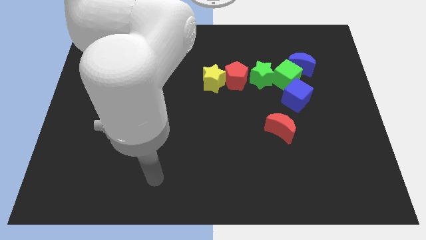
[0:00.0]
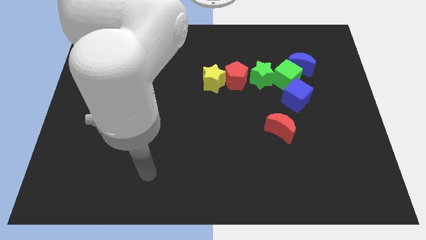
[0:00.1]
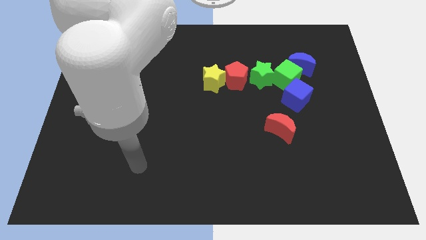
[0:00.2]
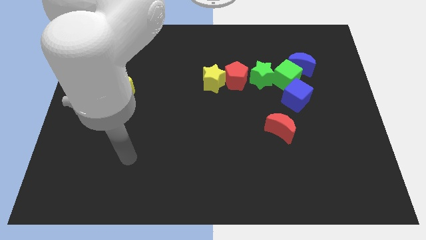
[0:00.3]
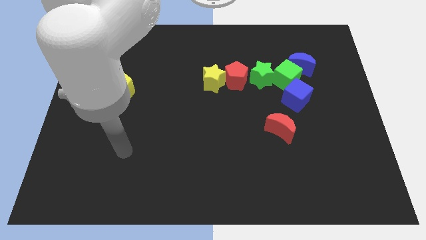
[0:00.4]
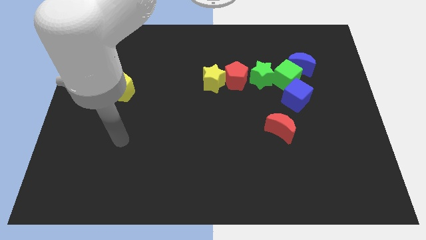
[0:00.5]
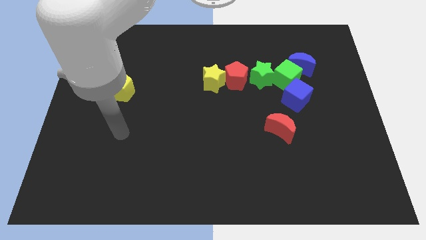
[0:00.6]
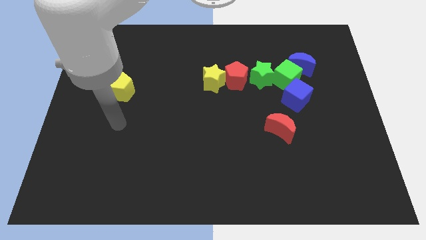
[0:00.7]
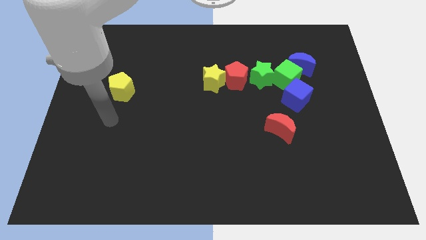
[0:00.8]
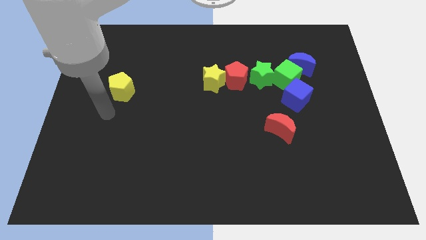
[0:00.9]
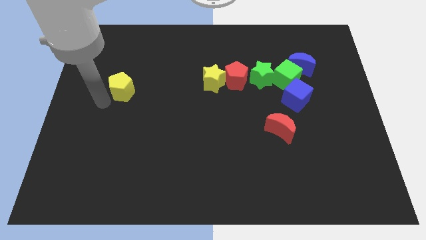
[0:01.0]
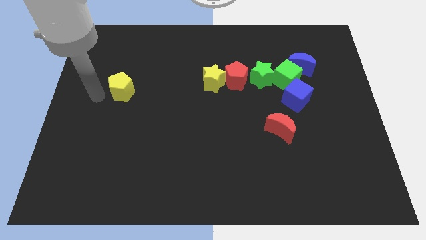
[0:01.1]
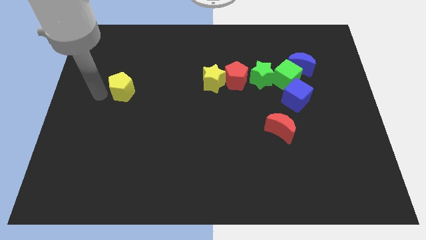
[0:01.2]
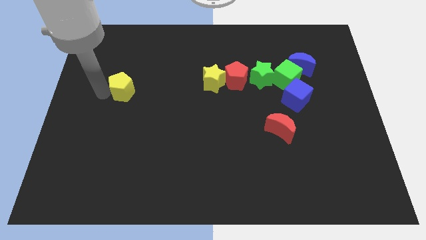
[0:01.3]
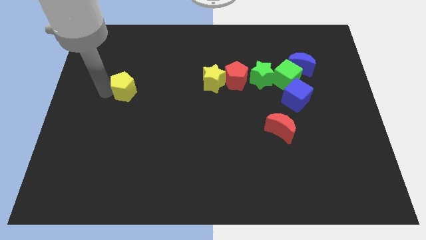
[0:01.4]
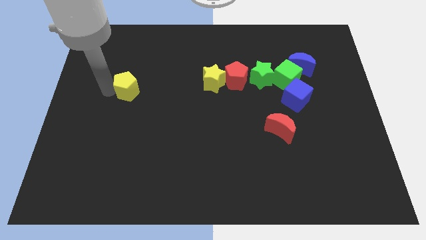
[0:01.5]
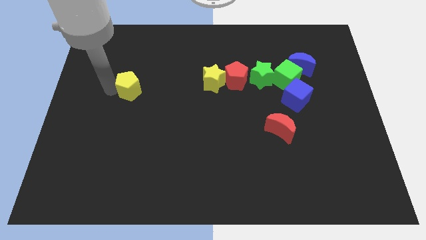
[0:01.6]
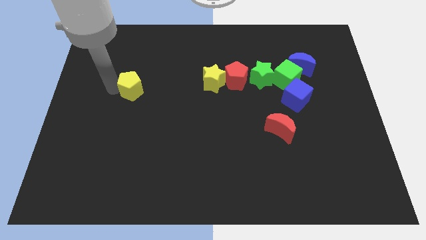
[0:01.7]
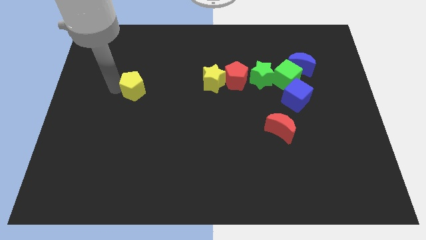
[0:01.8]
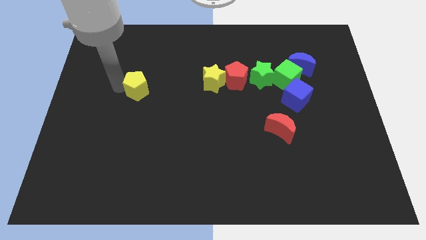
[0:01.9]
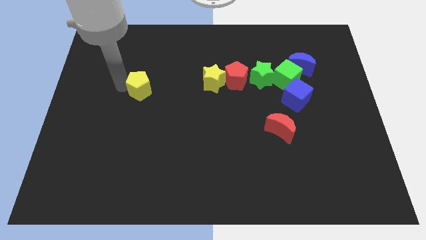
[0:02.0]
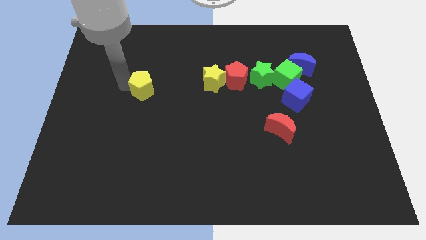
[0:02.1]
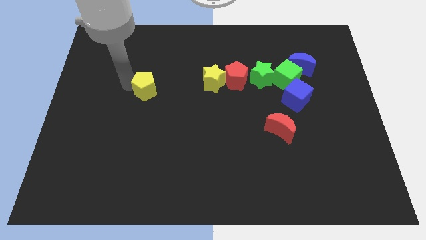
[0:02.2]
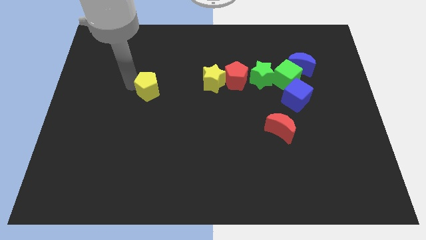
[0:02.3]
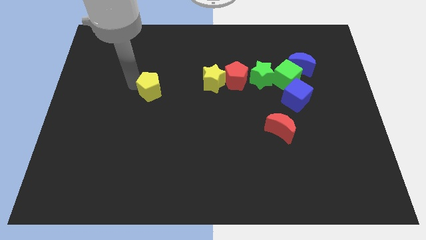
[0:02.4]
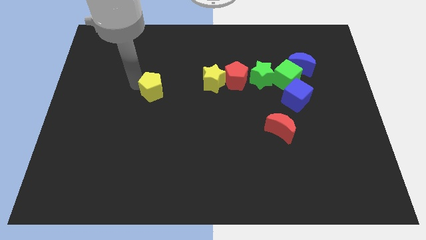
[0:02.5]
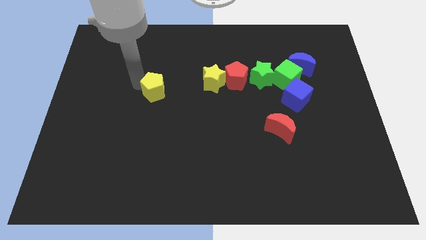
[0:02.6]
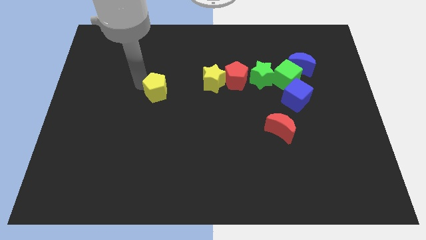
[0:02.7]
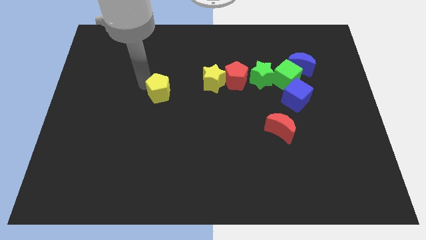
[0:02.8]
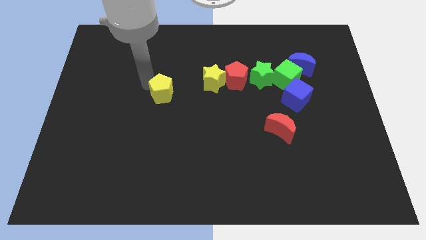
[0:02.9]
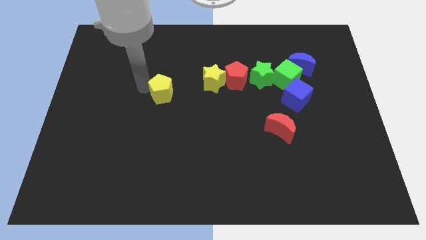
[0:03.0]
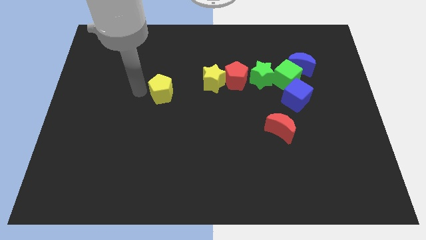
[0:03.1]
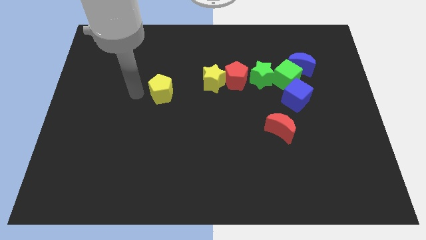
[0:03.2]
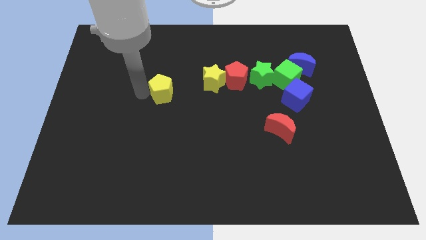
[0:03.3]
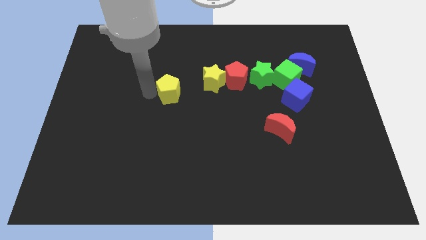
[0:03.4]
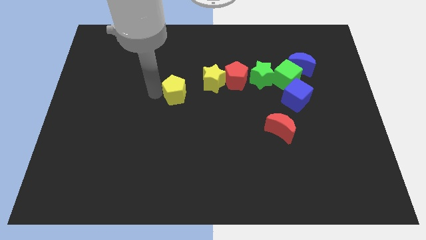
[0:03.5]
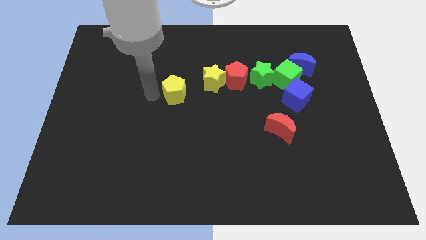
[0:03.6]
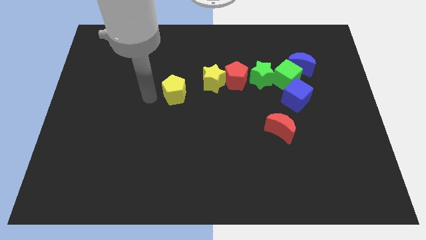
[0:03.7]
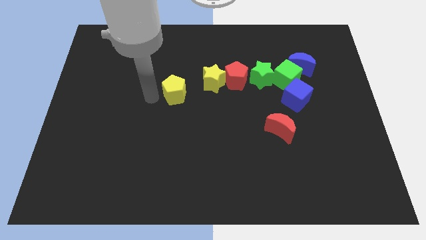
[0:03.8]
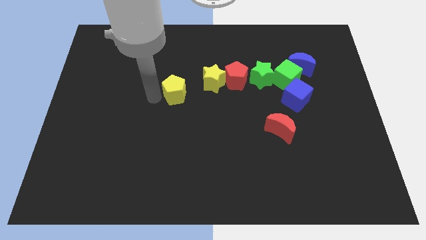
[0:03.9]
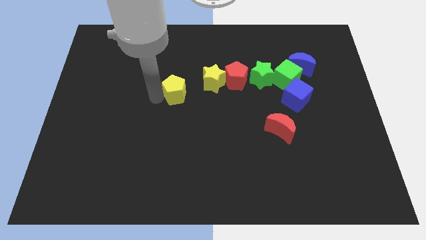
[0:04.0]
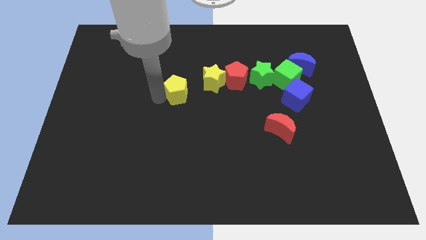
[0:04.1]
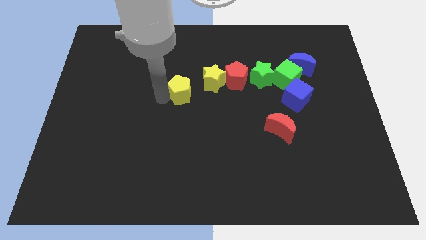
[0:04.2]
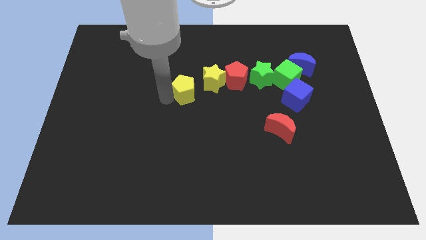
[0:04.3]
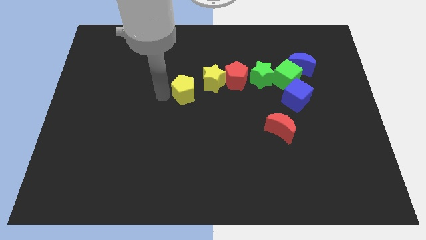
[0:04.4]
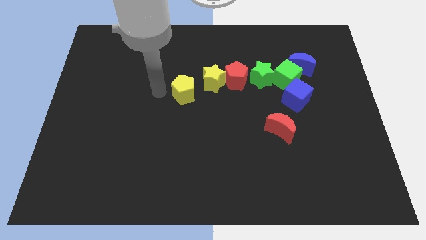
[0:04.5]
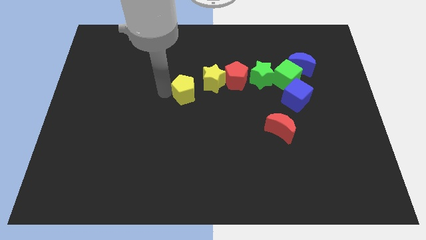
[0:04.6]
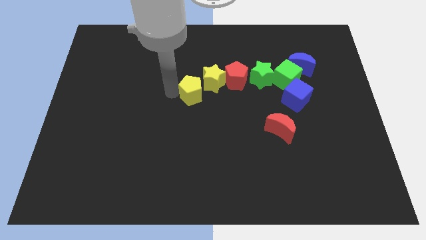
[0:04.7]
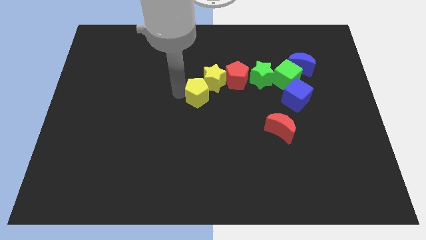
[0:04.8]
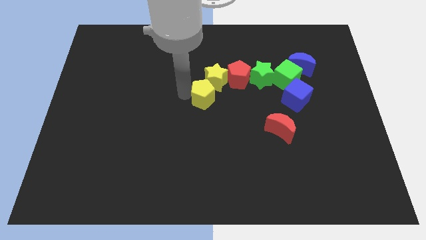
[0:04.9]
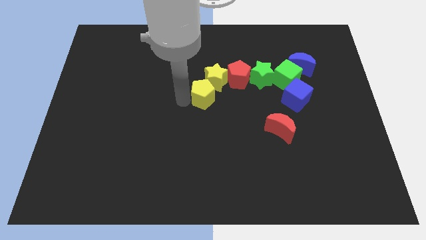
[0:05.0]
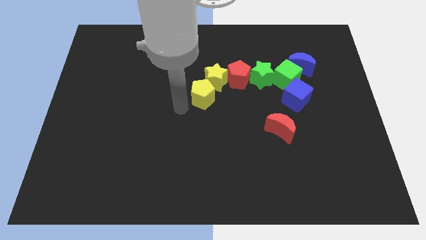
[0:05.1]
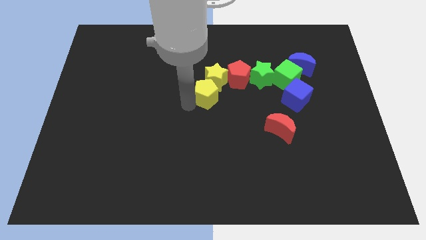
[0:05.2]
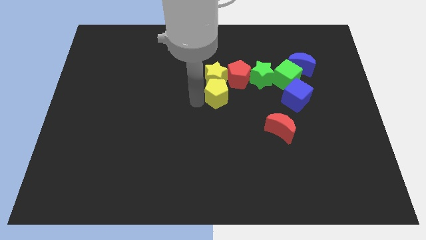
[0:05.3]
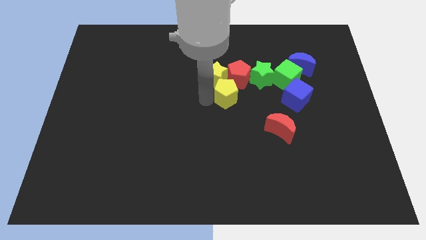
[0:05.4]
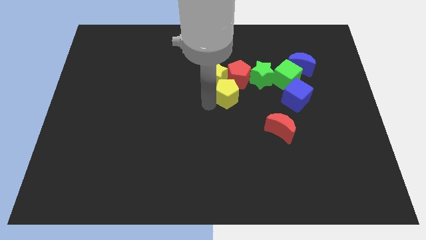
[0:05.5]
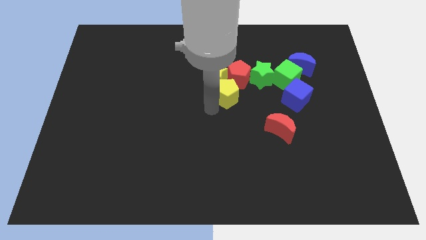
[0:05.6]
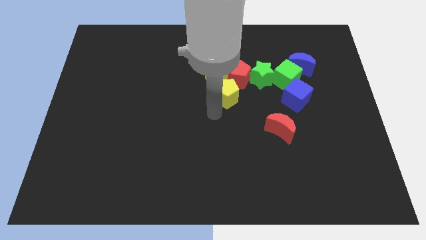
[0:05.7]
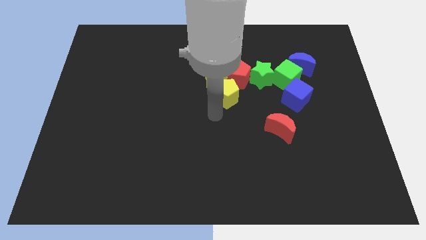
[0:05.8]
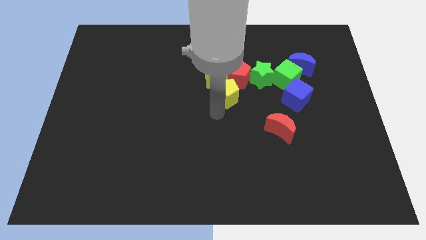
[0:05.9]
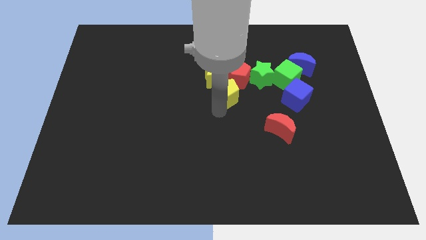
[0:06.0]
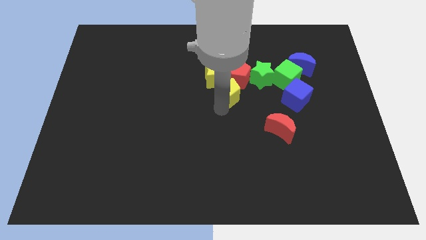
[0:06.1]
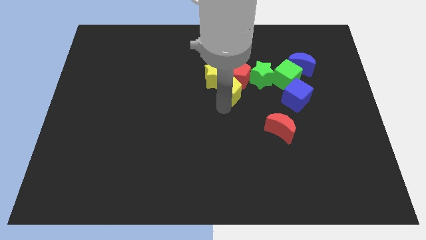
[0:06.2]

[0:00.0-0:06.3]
push the yellow pentagon towards the red pentagon

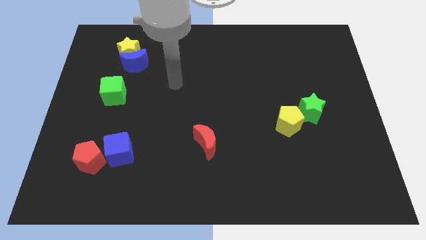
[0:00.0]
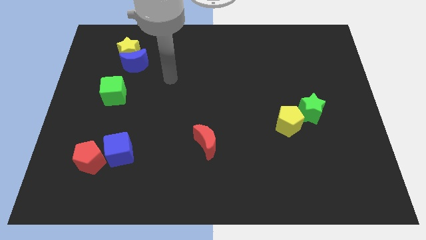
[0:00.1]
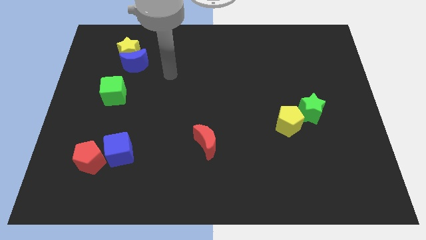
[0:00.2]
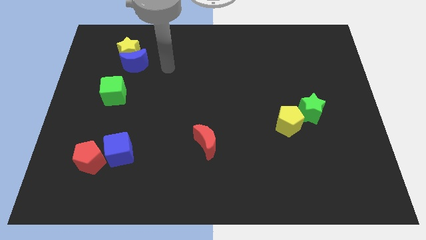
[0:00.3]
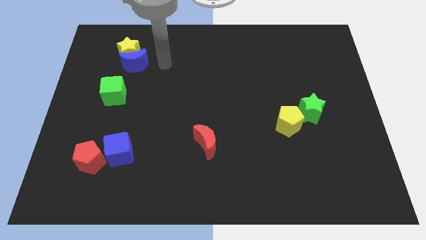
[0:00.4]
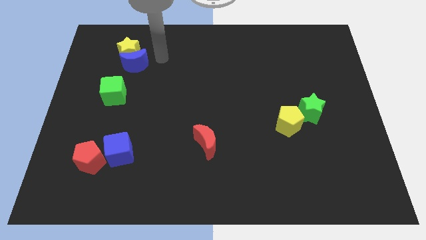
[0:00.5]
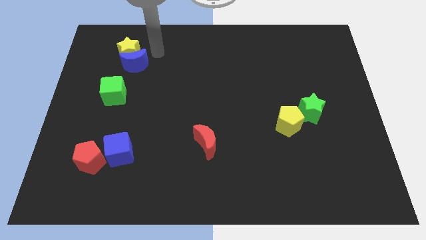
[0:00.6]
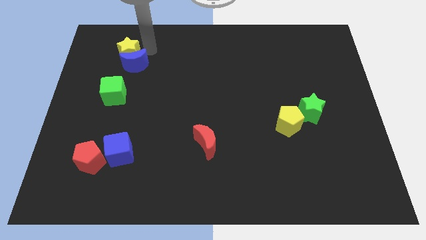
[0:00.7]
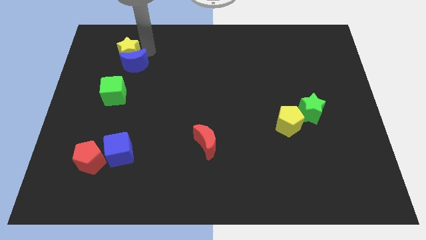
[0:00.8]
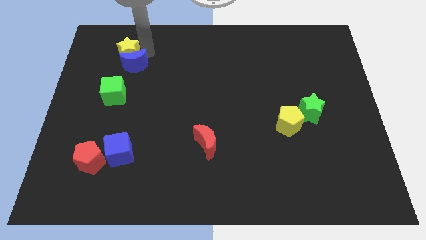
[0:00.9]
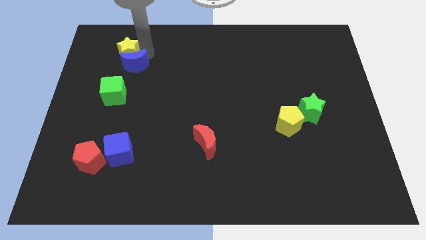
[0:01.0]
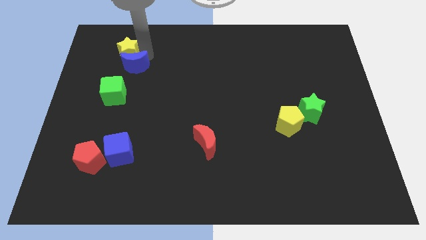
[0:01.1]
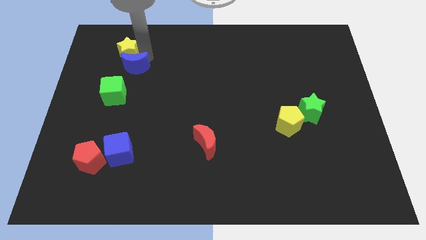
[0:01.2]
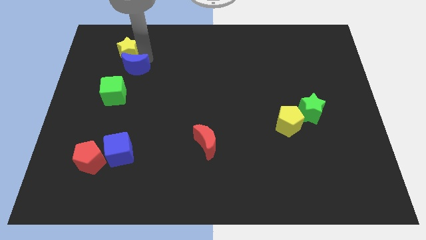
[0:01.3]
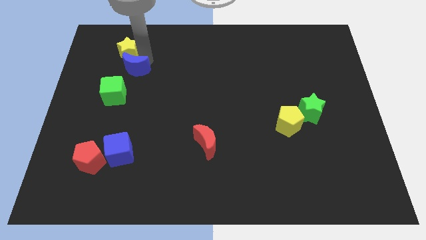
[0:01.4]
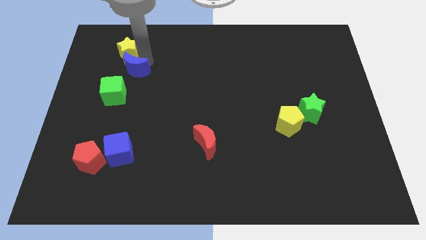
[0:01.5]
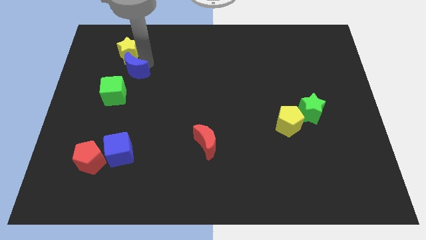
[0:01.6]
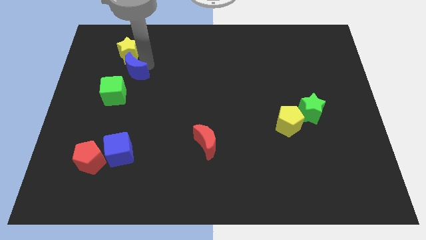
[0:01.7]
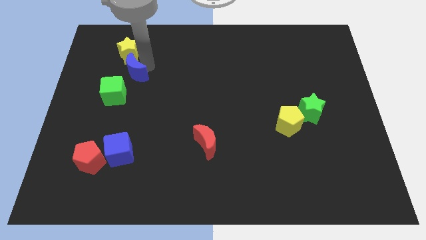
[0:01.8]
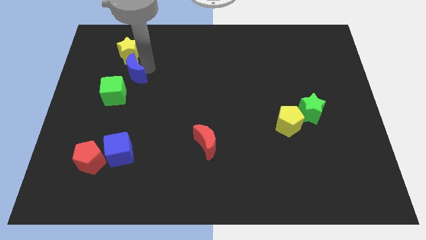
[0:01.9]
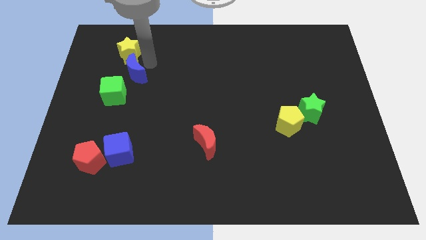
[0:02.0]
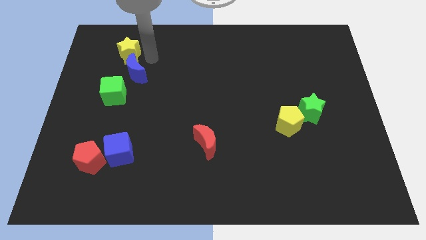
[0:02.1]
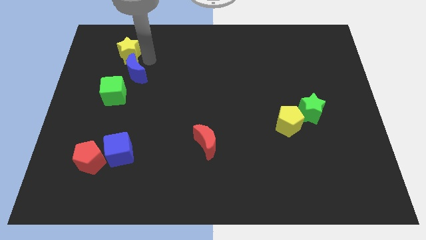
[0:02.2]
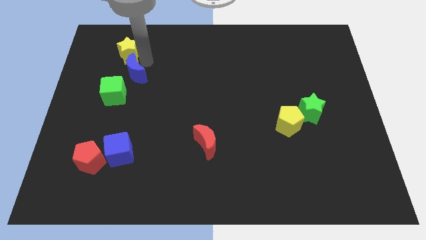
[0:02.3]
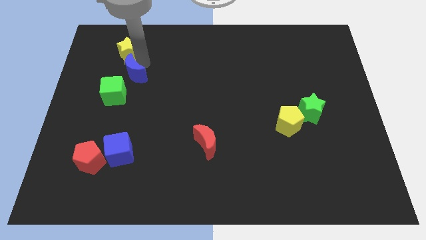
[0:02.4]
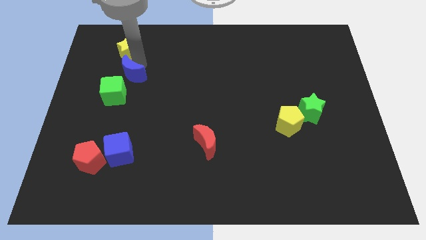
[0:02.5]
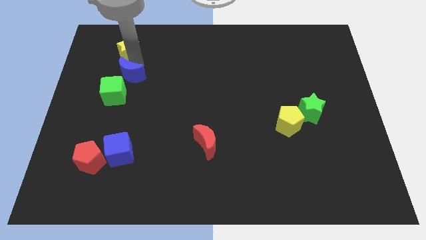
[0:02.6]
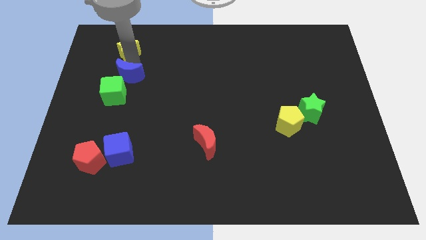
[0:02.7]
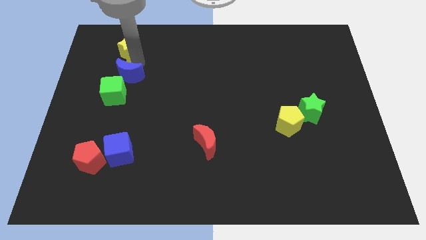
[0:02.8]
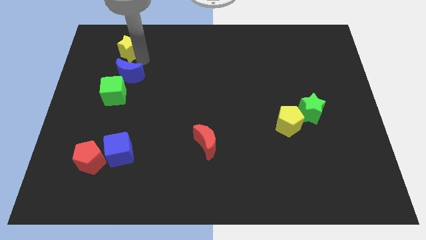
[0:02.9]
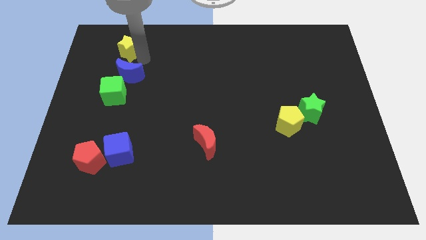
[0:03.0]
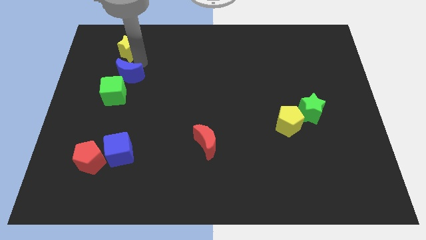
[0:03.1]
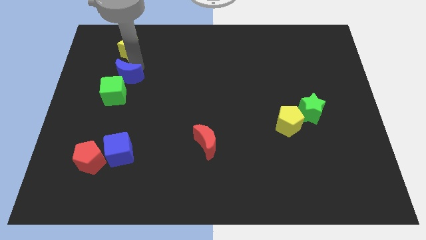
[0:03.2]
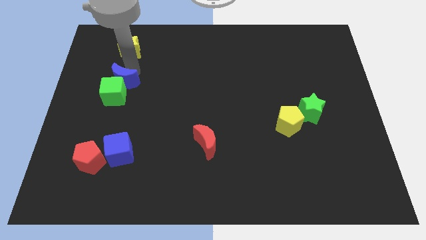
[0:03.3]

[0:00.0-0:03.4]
push the blue moon next to the green cube
